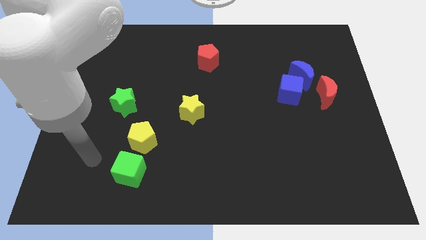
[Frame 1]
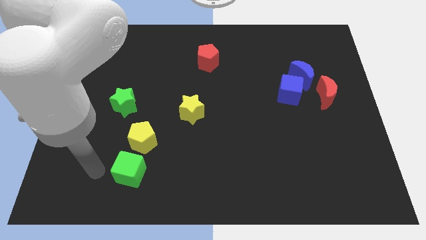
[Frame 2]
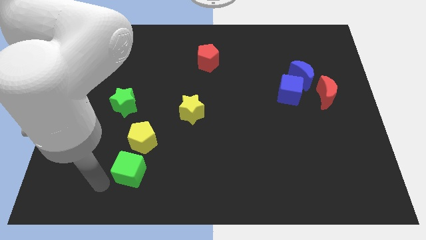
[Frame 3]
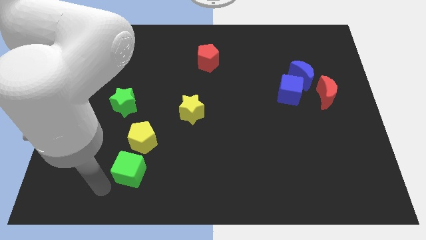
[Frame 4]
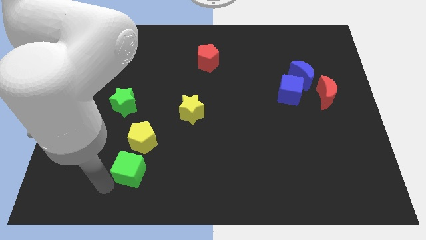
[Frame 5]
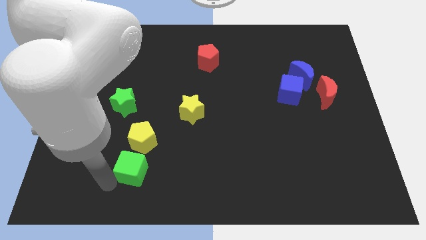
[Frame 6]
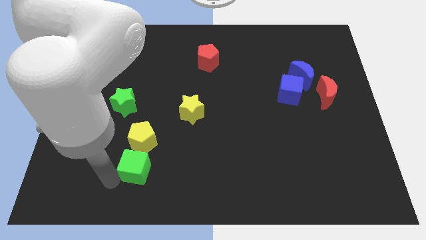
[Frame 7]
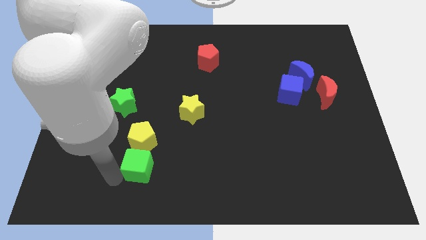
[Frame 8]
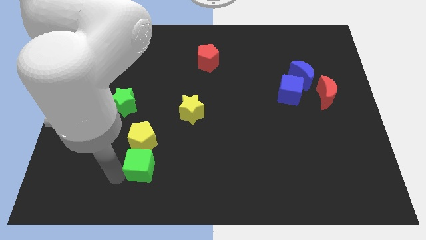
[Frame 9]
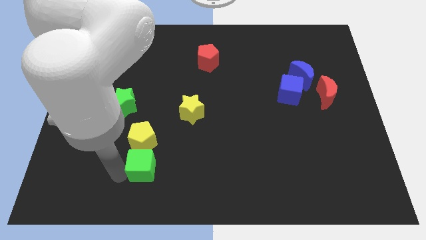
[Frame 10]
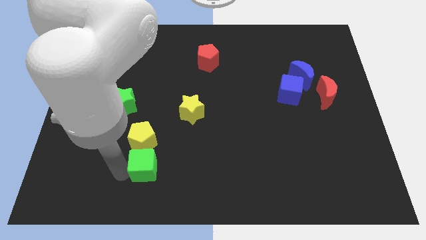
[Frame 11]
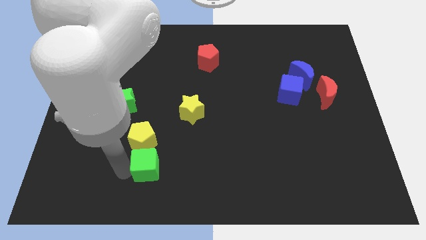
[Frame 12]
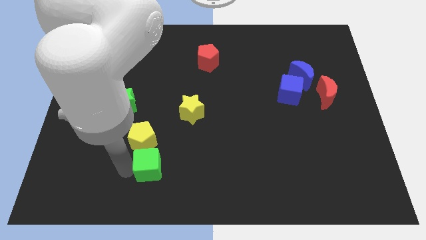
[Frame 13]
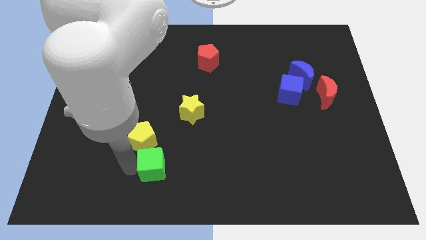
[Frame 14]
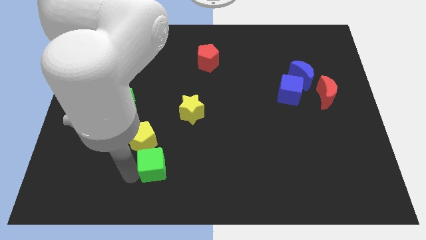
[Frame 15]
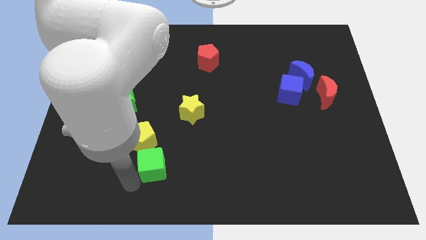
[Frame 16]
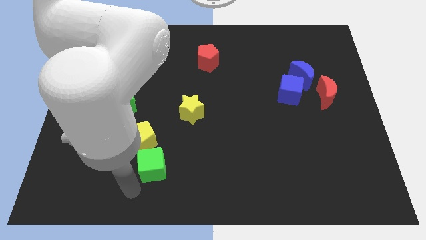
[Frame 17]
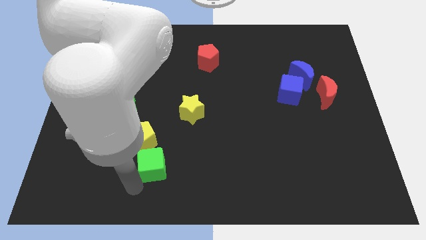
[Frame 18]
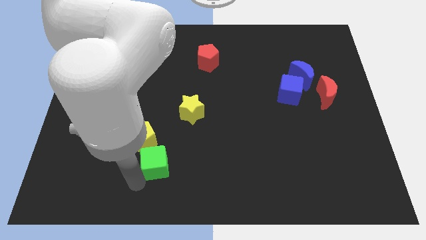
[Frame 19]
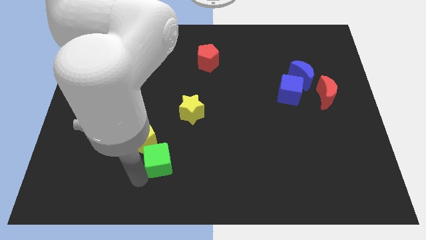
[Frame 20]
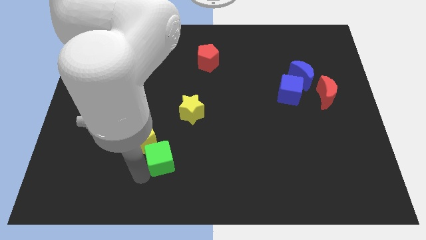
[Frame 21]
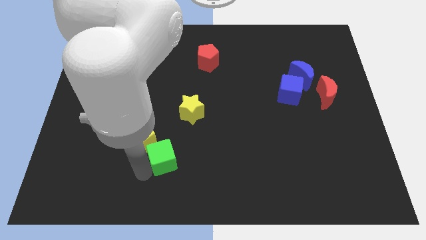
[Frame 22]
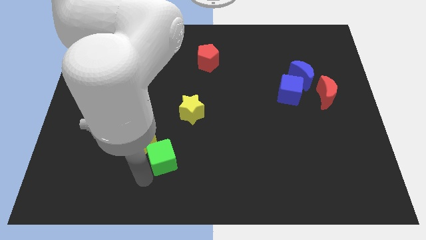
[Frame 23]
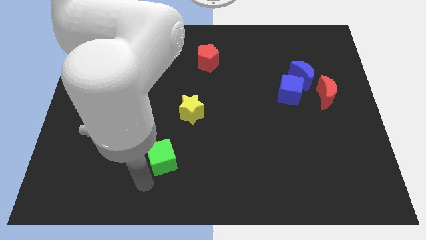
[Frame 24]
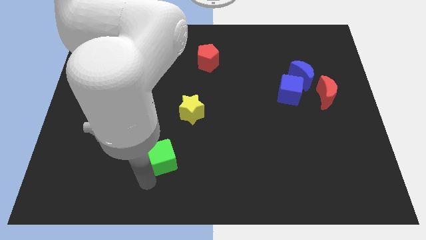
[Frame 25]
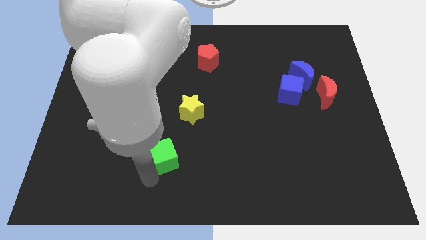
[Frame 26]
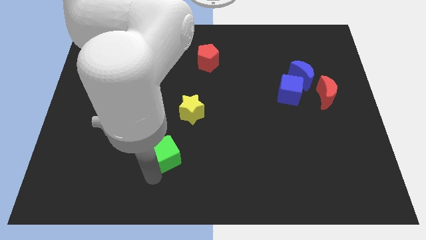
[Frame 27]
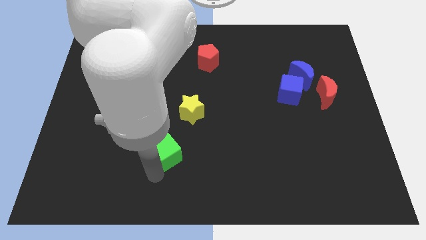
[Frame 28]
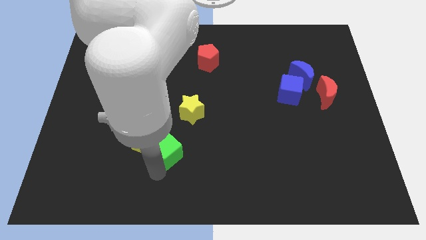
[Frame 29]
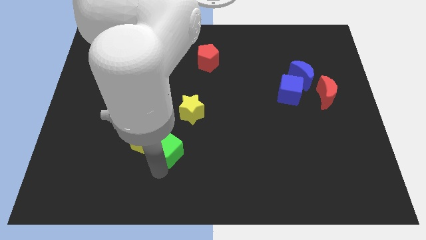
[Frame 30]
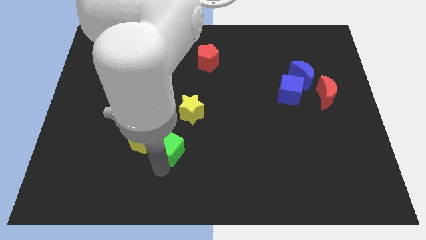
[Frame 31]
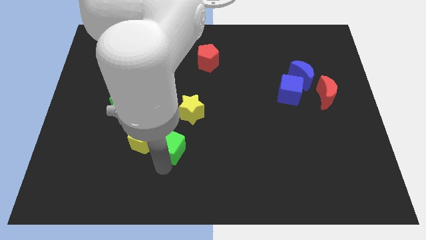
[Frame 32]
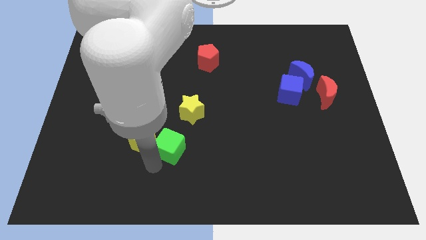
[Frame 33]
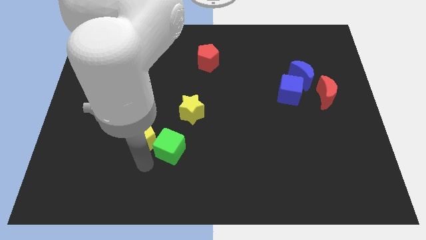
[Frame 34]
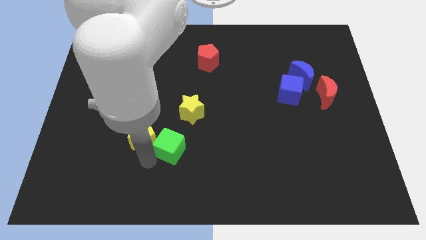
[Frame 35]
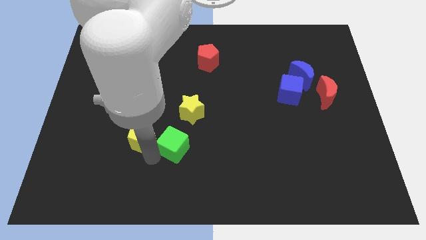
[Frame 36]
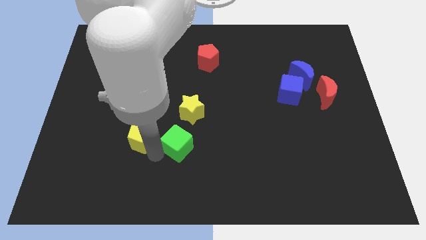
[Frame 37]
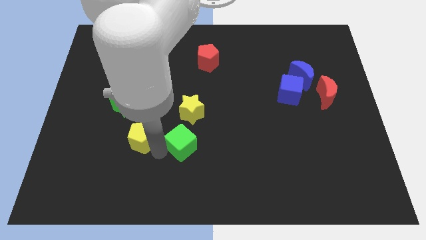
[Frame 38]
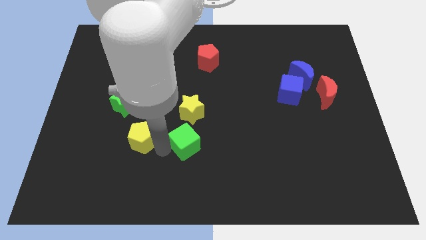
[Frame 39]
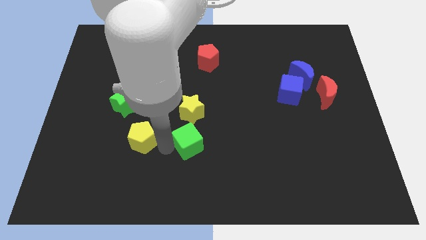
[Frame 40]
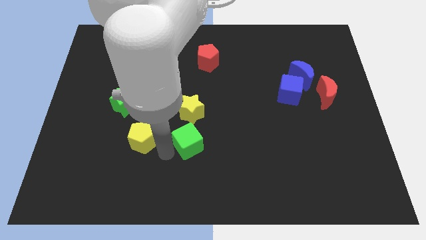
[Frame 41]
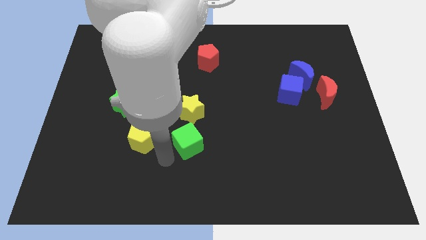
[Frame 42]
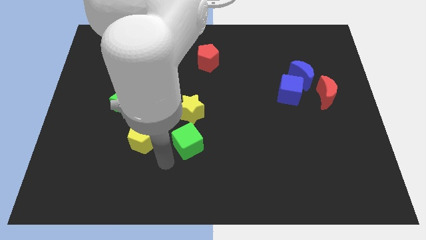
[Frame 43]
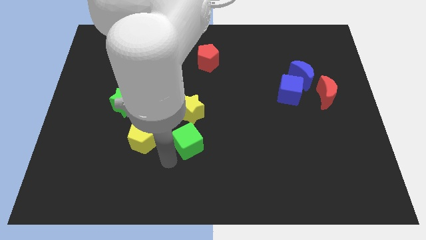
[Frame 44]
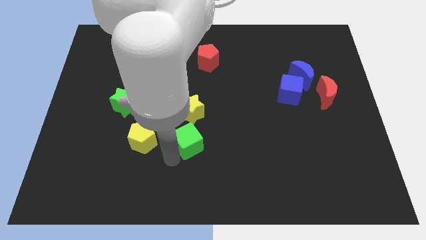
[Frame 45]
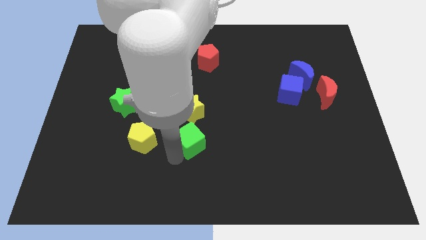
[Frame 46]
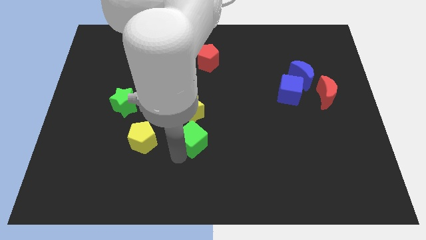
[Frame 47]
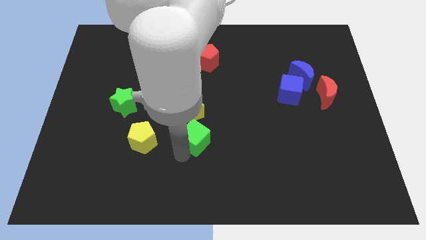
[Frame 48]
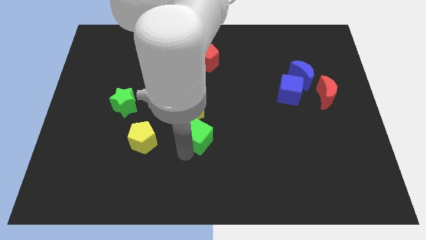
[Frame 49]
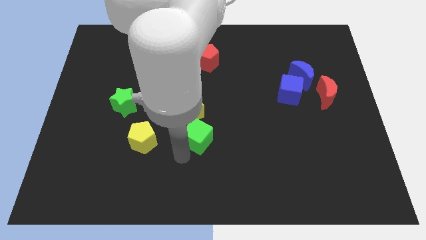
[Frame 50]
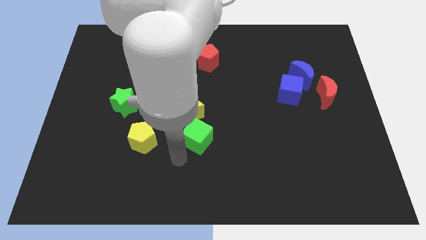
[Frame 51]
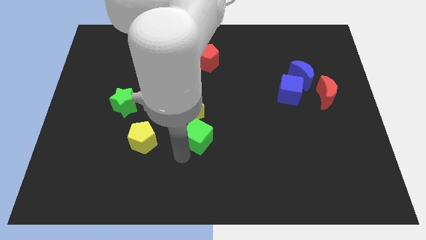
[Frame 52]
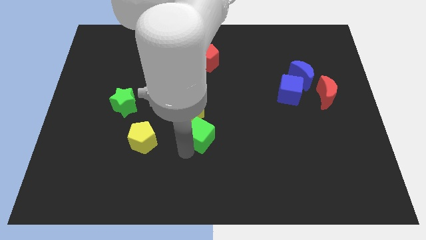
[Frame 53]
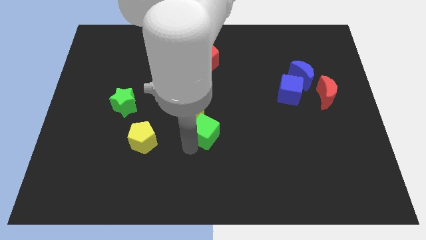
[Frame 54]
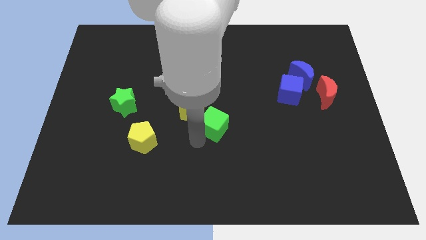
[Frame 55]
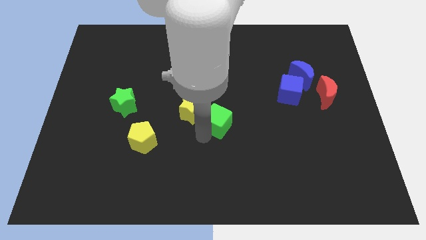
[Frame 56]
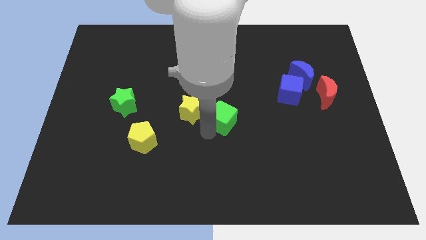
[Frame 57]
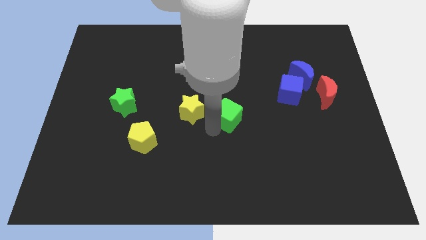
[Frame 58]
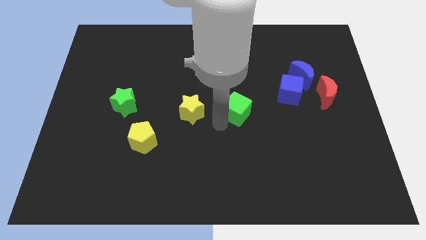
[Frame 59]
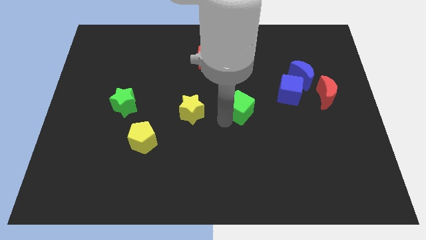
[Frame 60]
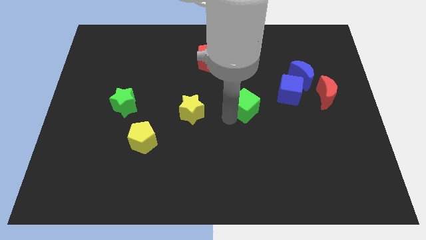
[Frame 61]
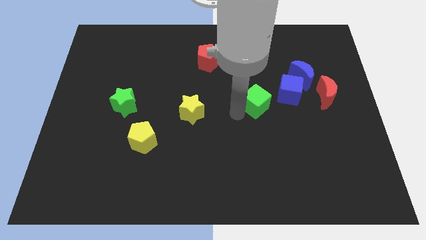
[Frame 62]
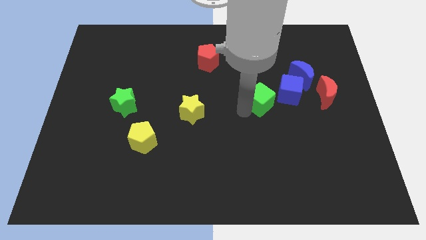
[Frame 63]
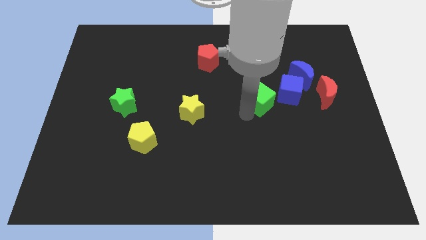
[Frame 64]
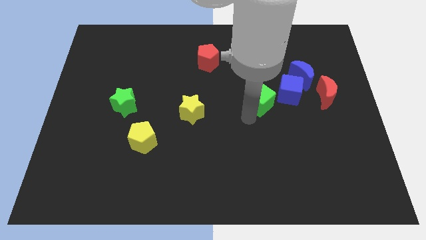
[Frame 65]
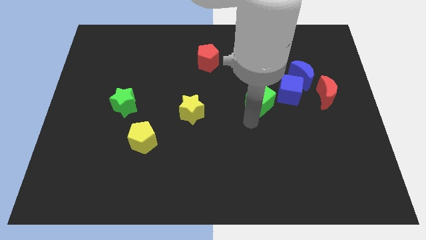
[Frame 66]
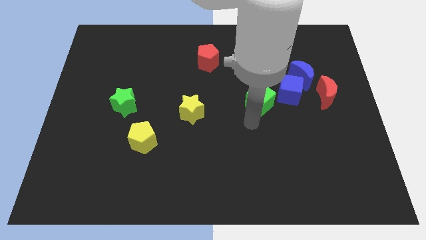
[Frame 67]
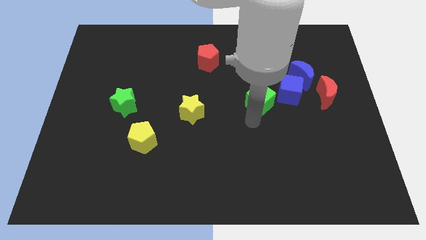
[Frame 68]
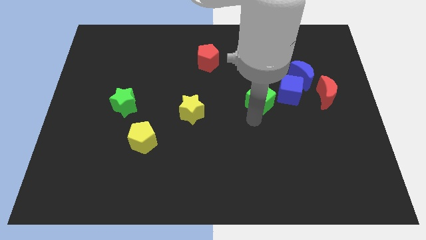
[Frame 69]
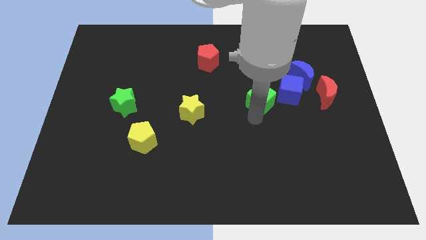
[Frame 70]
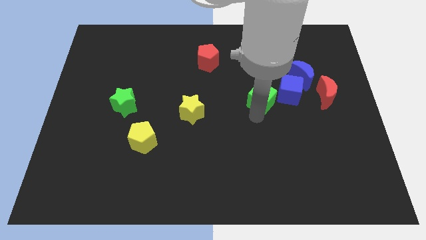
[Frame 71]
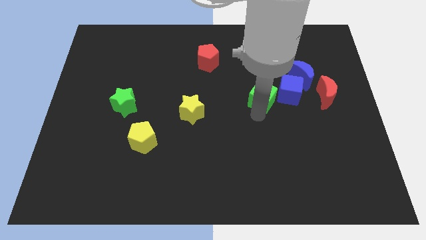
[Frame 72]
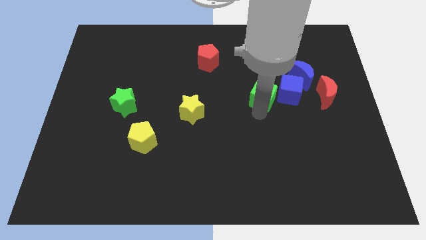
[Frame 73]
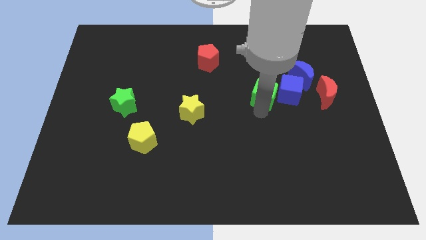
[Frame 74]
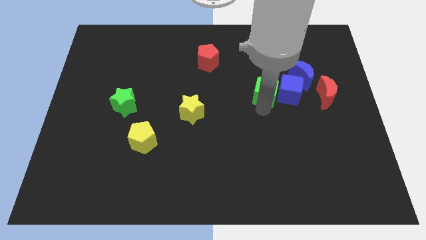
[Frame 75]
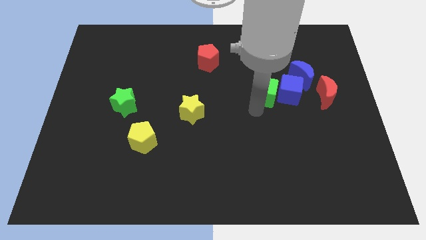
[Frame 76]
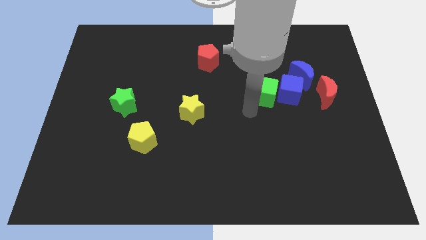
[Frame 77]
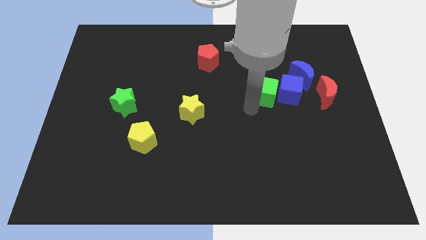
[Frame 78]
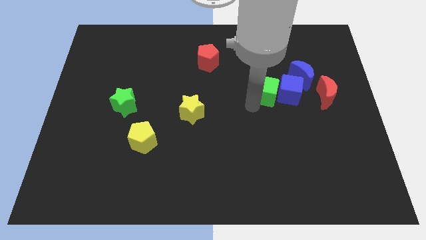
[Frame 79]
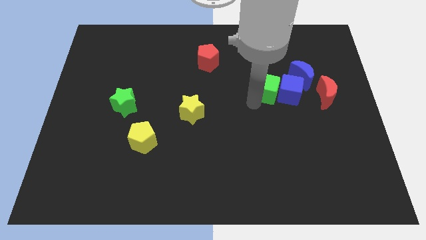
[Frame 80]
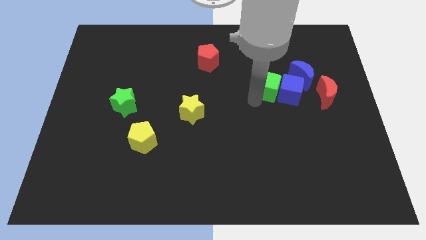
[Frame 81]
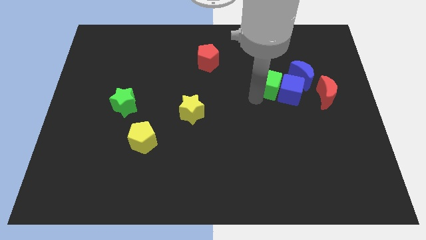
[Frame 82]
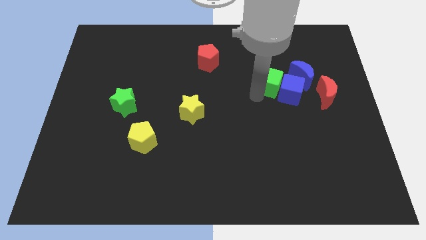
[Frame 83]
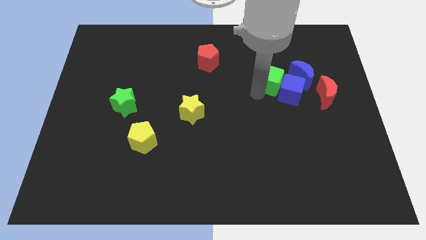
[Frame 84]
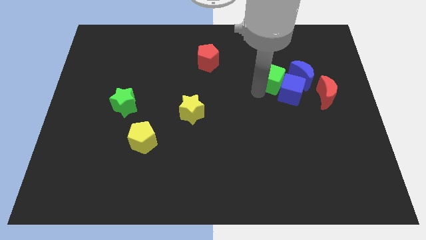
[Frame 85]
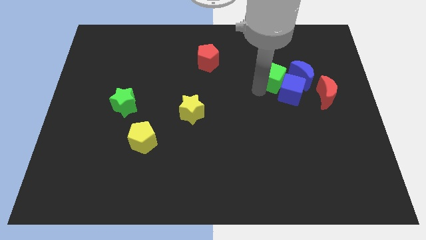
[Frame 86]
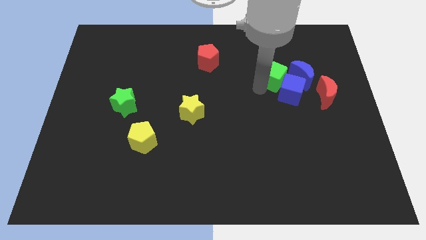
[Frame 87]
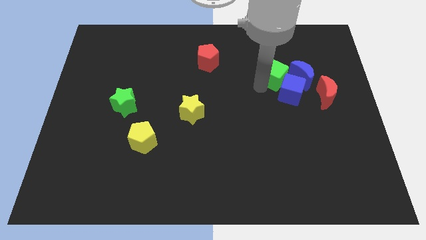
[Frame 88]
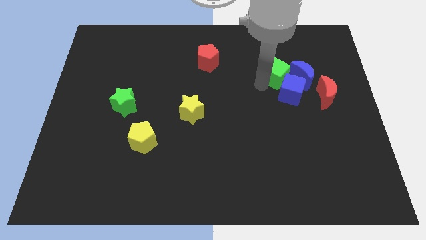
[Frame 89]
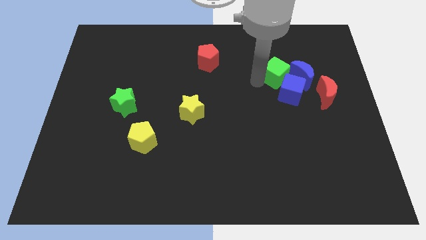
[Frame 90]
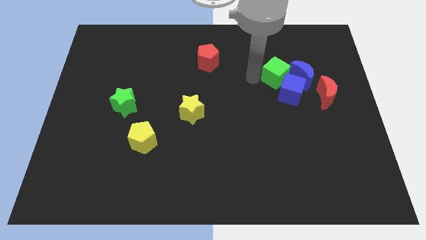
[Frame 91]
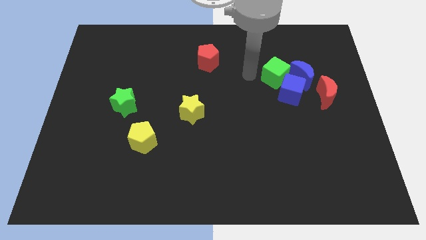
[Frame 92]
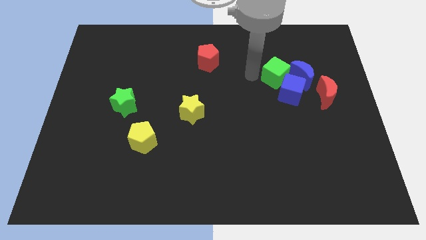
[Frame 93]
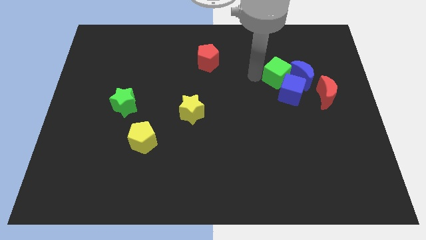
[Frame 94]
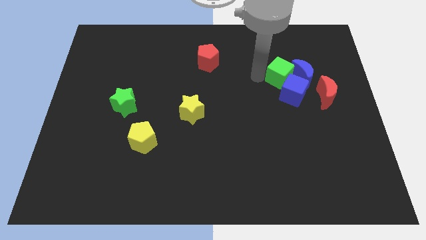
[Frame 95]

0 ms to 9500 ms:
push the green cube close to the blue moon
